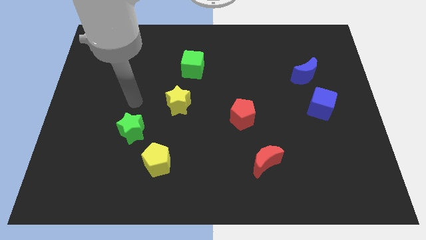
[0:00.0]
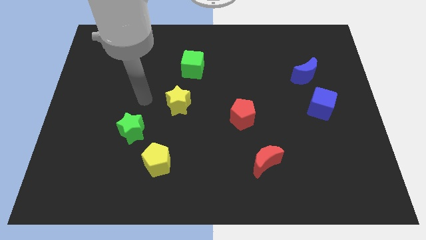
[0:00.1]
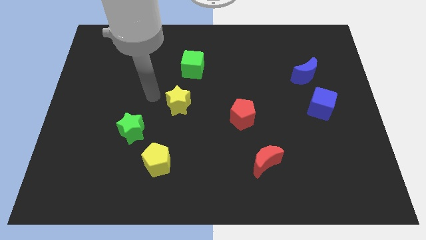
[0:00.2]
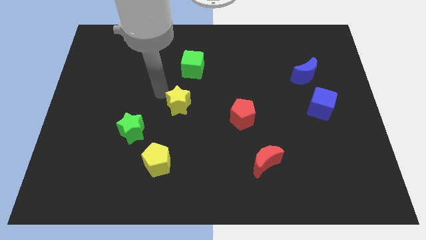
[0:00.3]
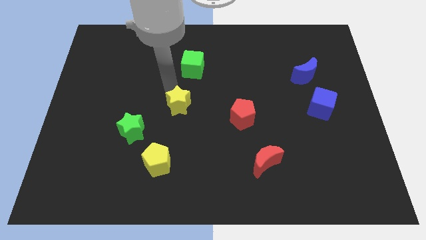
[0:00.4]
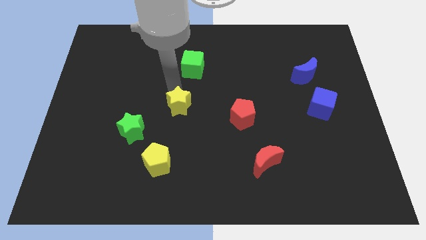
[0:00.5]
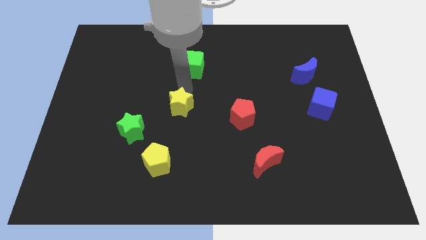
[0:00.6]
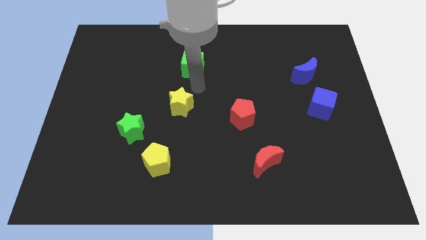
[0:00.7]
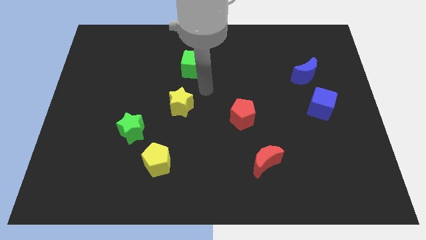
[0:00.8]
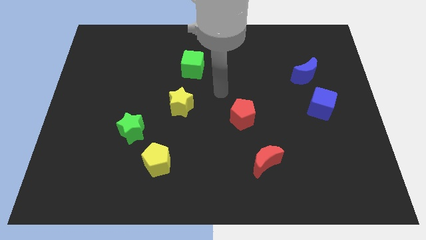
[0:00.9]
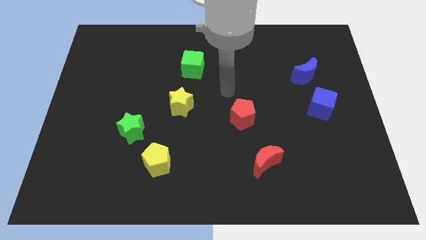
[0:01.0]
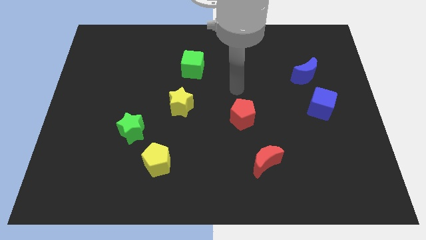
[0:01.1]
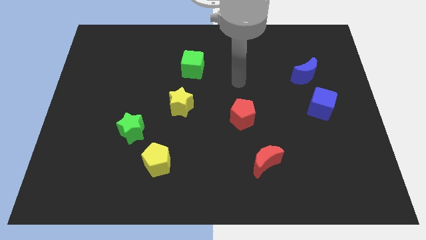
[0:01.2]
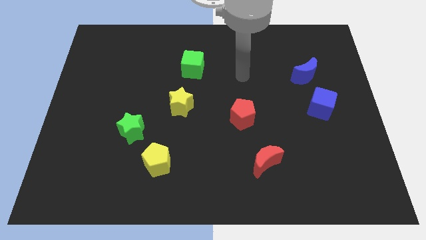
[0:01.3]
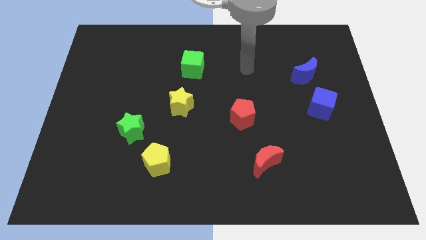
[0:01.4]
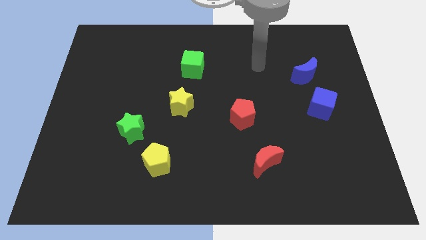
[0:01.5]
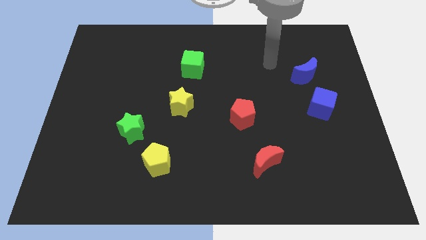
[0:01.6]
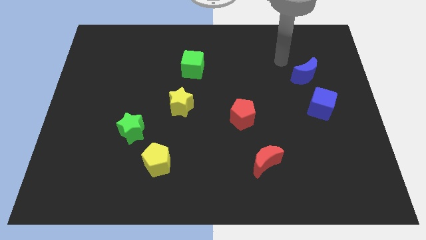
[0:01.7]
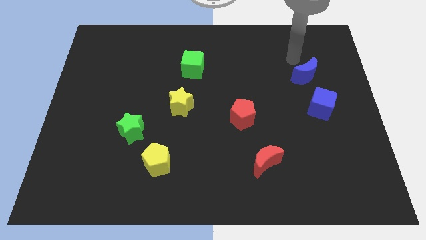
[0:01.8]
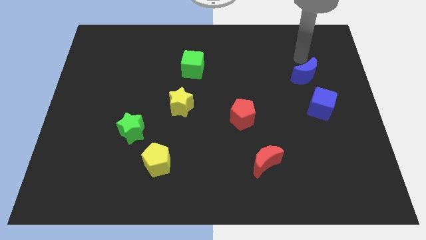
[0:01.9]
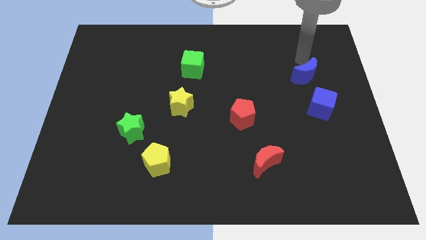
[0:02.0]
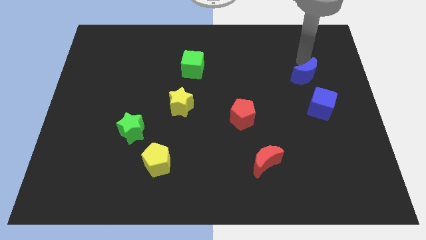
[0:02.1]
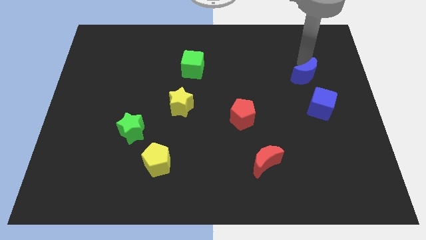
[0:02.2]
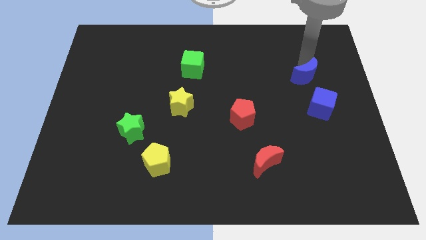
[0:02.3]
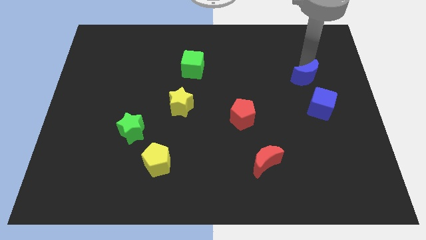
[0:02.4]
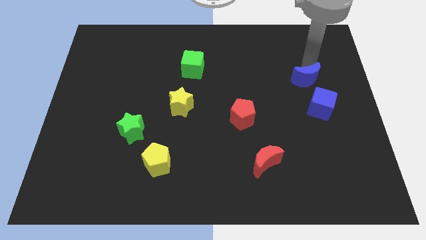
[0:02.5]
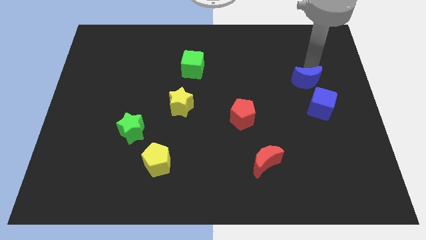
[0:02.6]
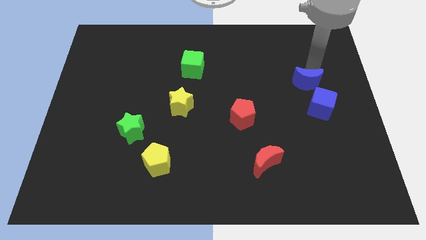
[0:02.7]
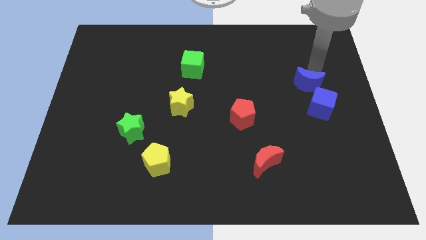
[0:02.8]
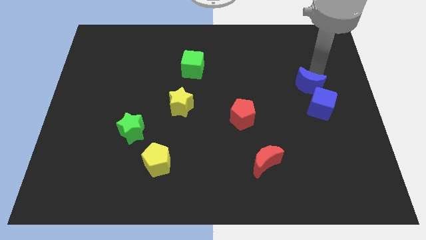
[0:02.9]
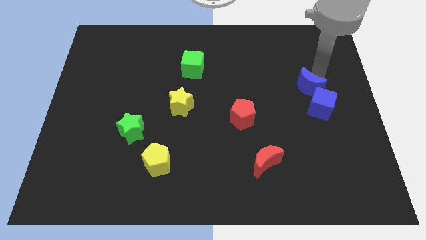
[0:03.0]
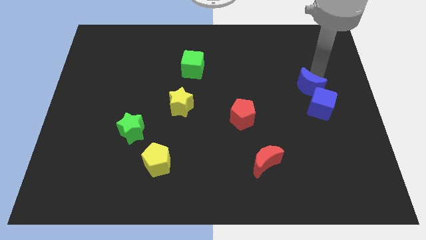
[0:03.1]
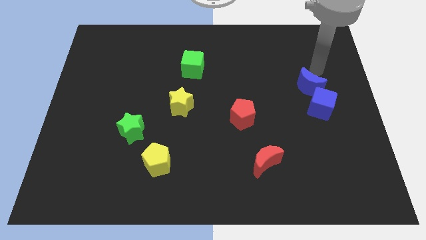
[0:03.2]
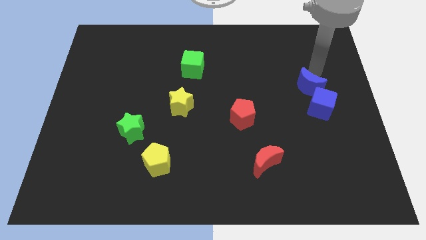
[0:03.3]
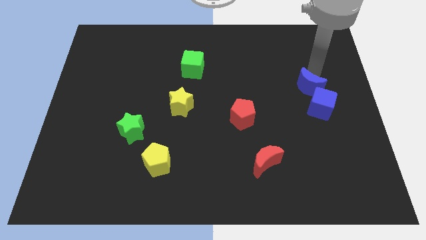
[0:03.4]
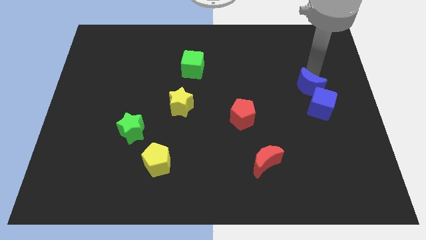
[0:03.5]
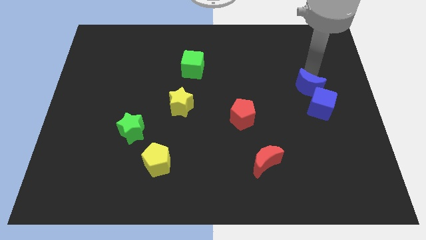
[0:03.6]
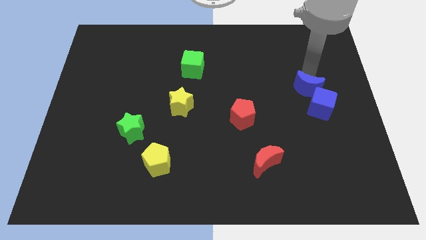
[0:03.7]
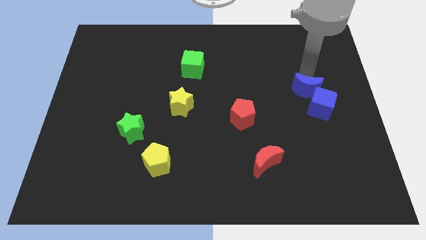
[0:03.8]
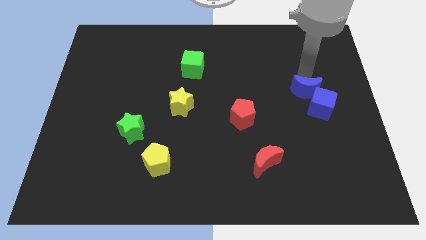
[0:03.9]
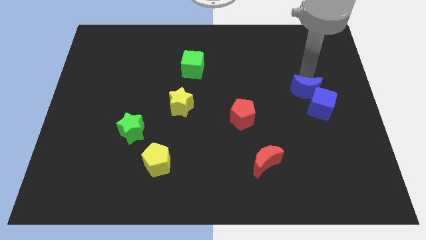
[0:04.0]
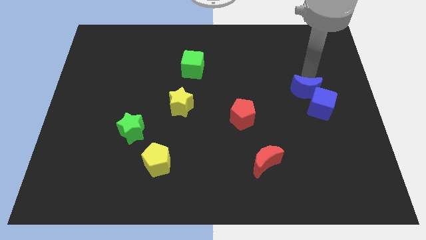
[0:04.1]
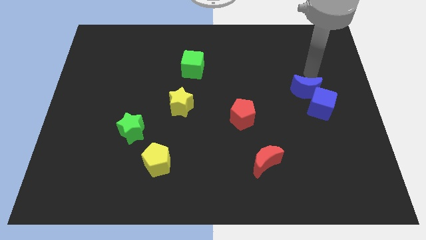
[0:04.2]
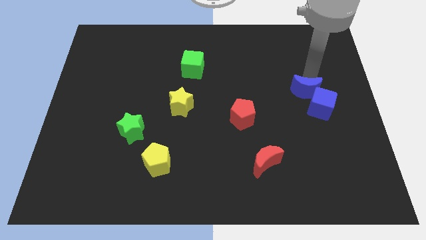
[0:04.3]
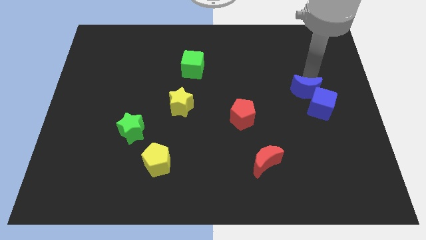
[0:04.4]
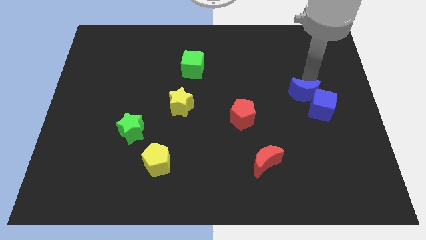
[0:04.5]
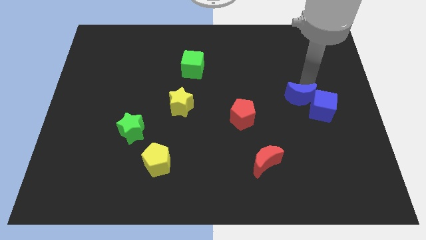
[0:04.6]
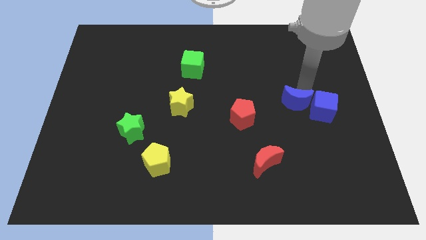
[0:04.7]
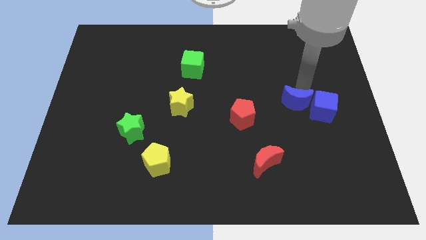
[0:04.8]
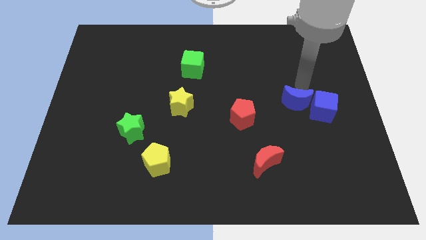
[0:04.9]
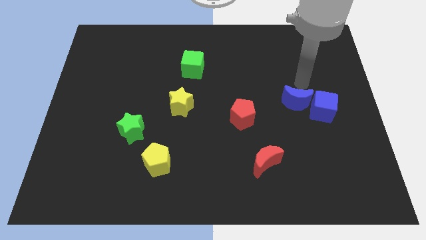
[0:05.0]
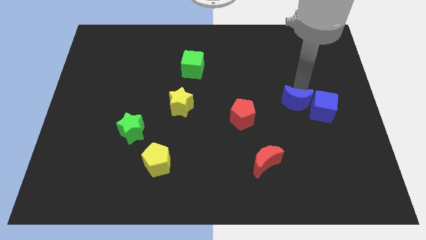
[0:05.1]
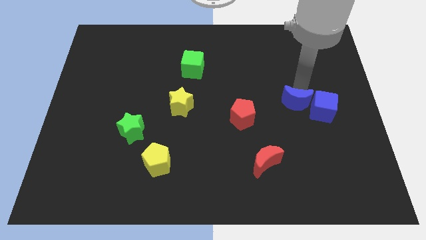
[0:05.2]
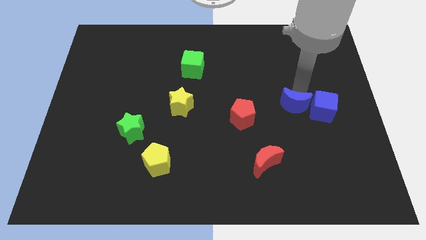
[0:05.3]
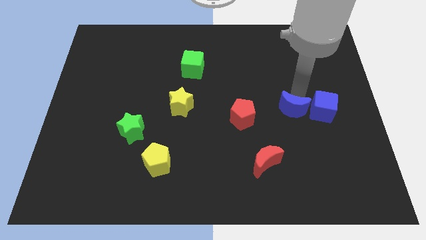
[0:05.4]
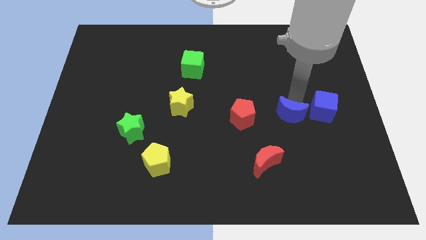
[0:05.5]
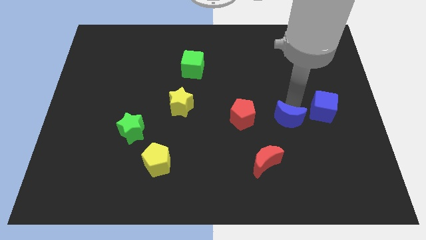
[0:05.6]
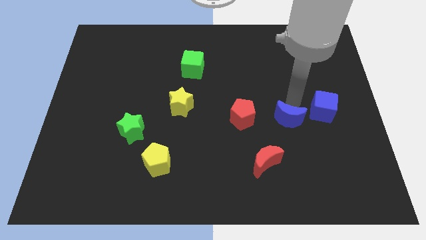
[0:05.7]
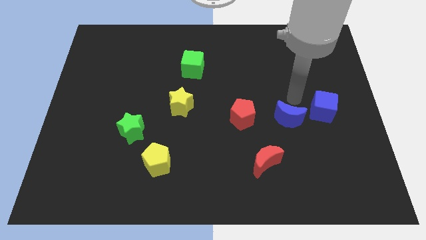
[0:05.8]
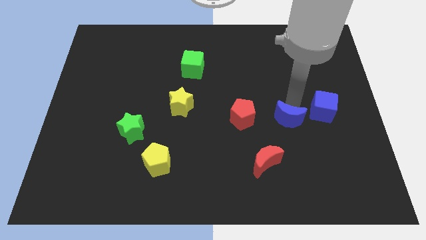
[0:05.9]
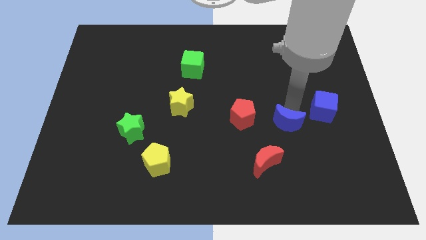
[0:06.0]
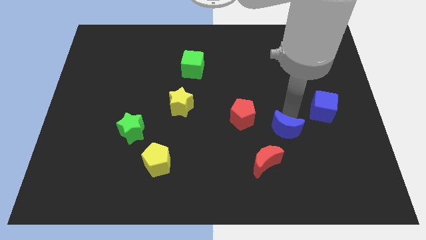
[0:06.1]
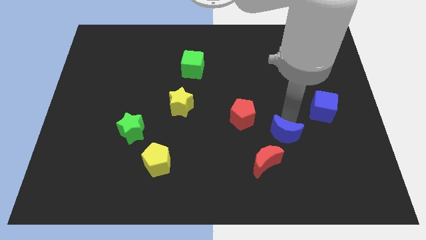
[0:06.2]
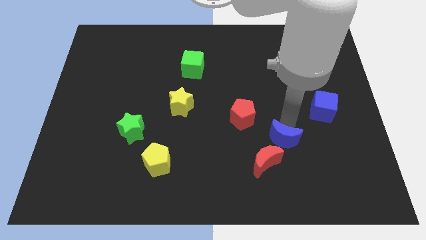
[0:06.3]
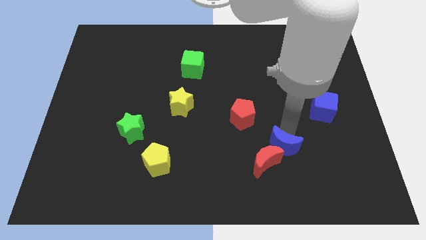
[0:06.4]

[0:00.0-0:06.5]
put the blue moon towards the red moon
